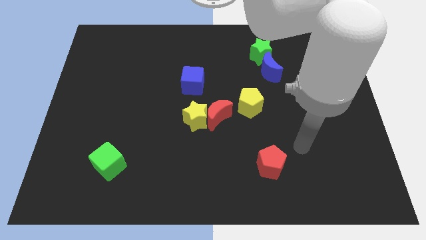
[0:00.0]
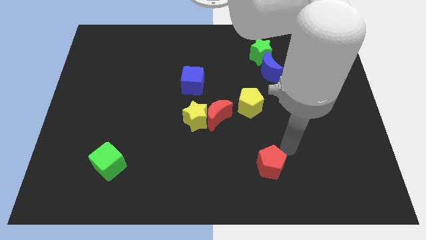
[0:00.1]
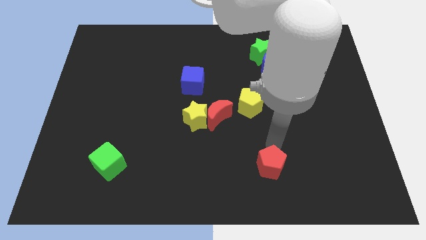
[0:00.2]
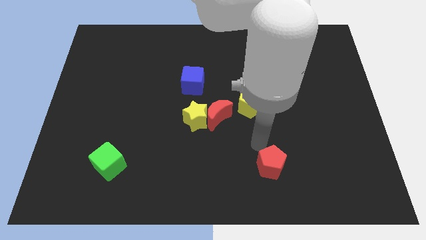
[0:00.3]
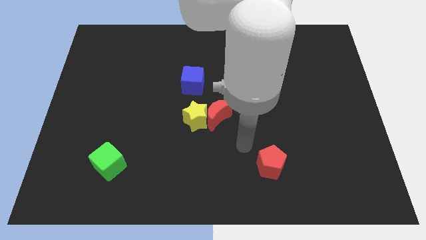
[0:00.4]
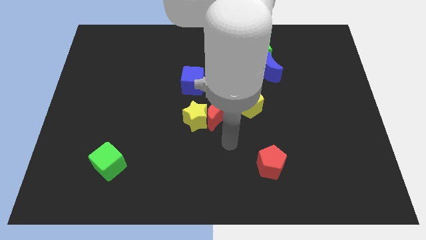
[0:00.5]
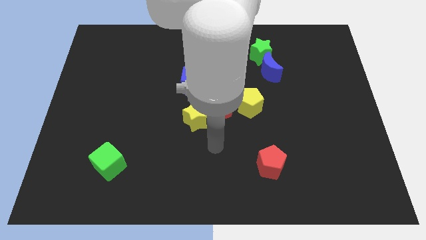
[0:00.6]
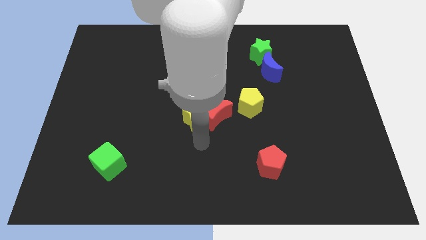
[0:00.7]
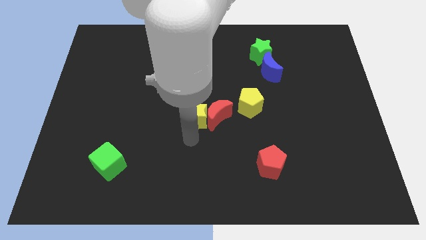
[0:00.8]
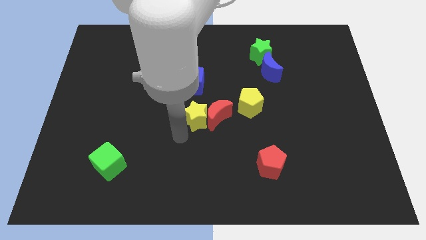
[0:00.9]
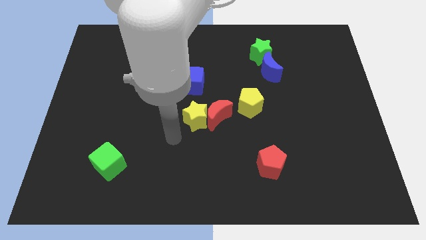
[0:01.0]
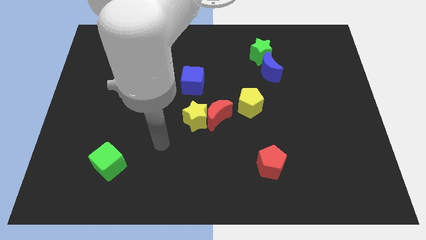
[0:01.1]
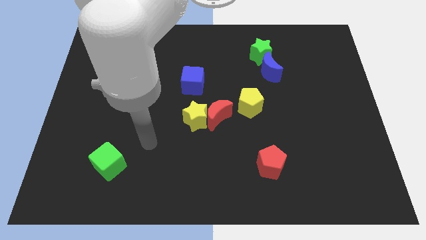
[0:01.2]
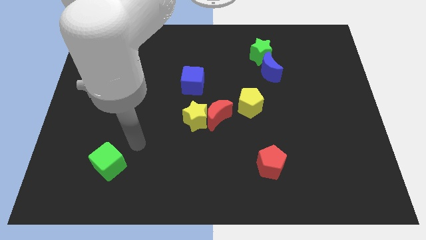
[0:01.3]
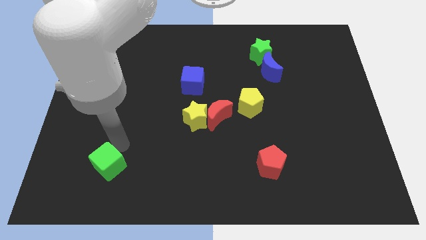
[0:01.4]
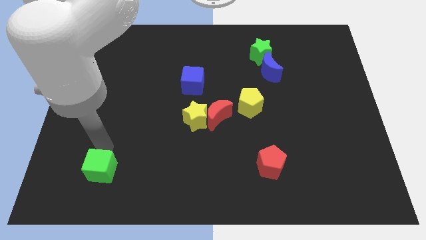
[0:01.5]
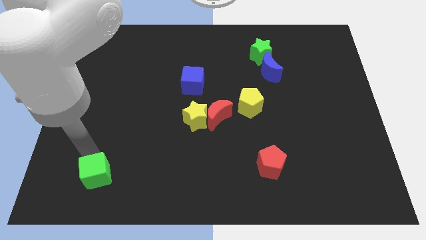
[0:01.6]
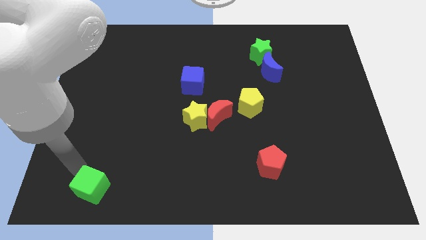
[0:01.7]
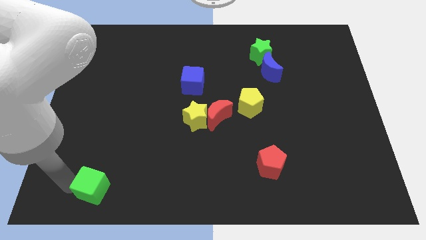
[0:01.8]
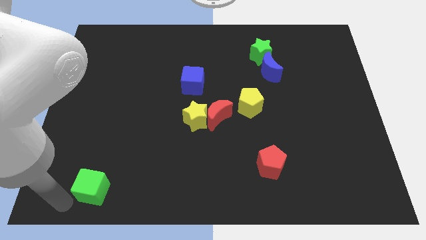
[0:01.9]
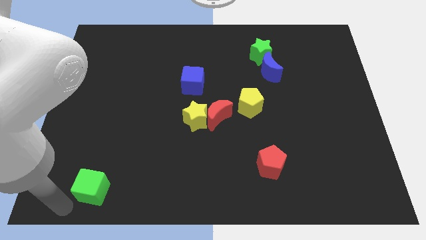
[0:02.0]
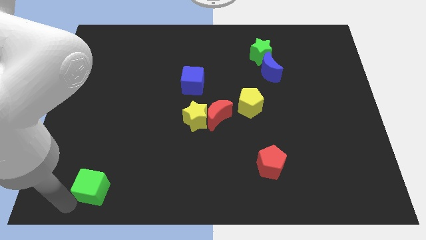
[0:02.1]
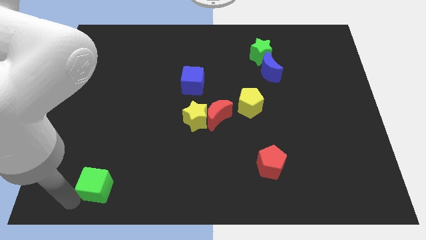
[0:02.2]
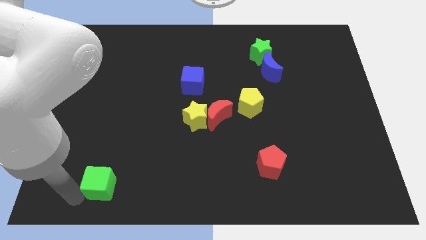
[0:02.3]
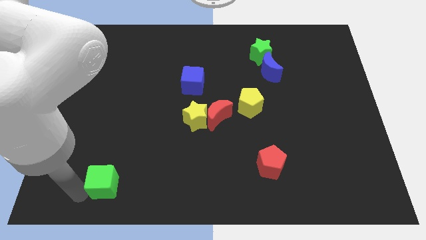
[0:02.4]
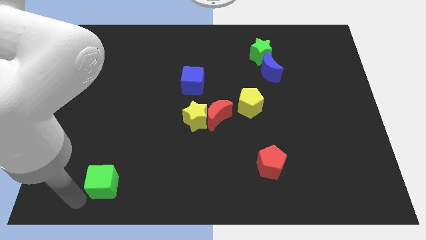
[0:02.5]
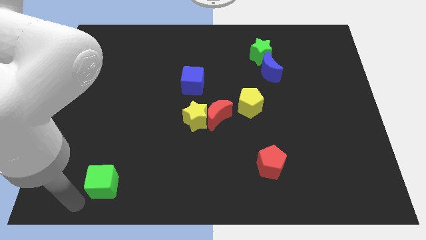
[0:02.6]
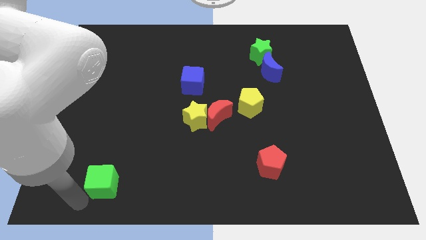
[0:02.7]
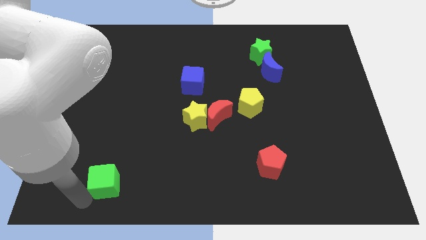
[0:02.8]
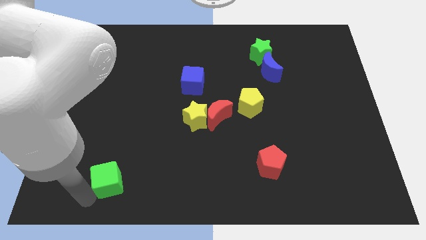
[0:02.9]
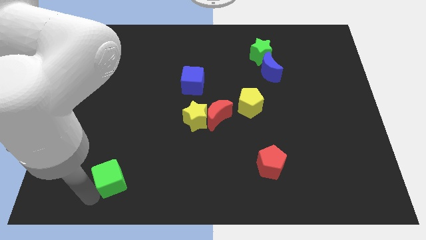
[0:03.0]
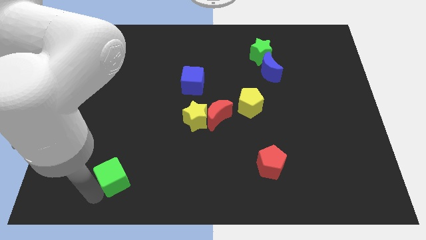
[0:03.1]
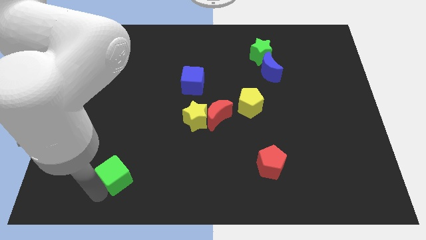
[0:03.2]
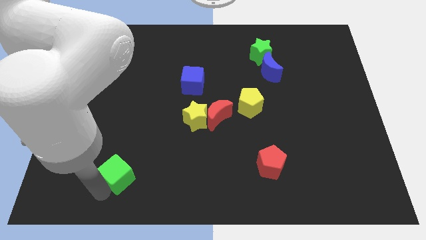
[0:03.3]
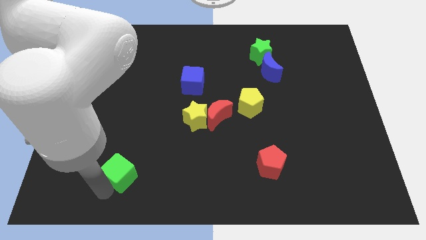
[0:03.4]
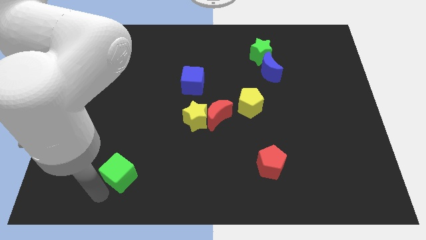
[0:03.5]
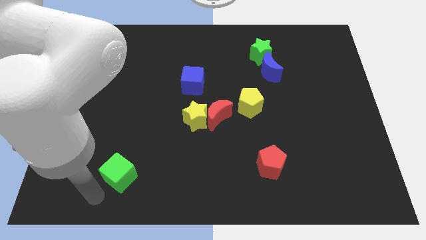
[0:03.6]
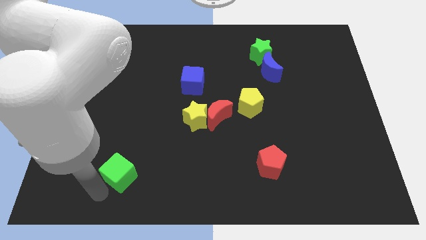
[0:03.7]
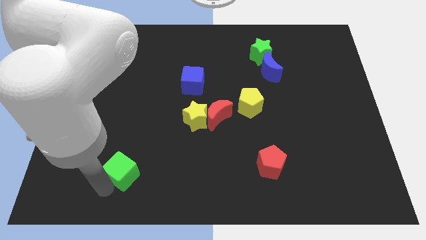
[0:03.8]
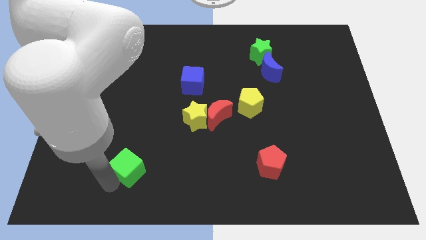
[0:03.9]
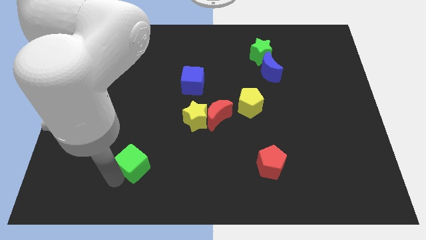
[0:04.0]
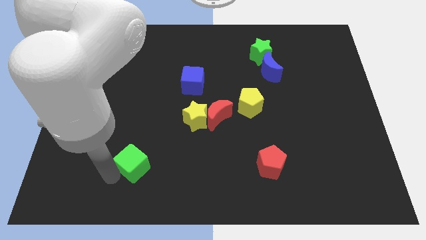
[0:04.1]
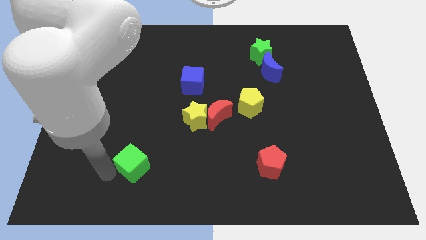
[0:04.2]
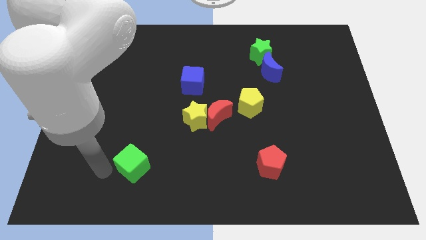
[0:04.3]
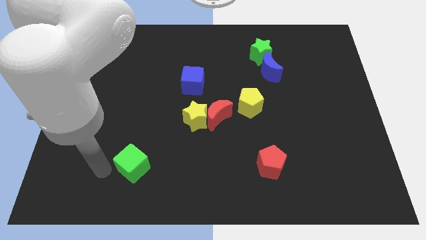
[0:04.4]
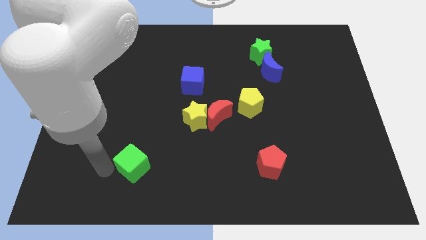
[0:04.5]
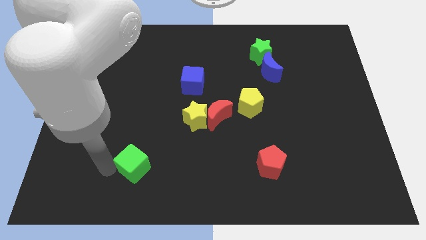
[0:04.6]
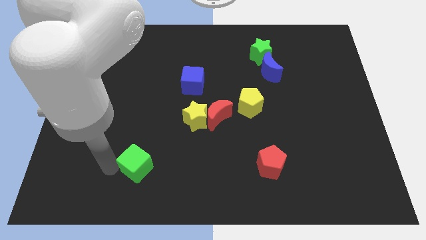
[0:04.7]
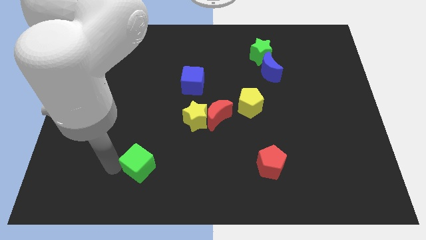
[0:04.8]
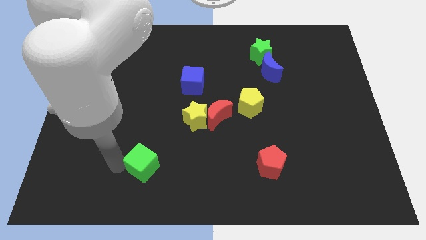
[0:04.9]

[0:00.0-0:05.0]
push the green cube right somewhat

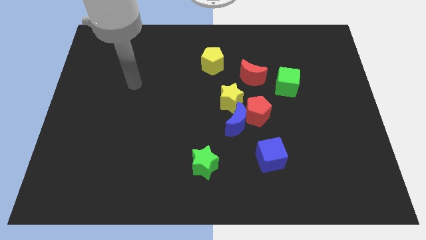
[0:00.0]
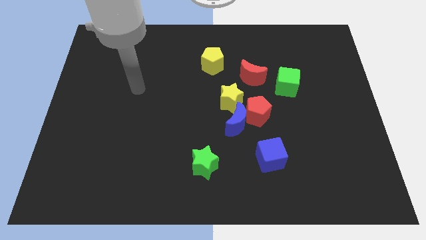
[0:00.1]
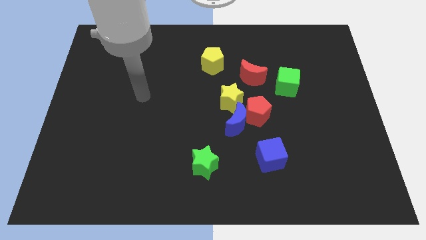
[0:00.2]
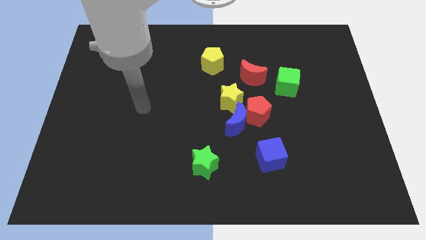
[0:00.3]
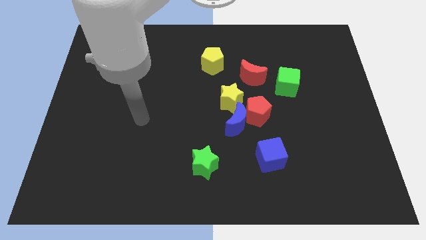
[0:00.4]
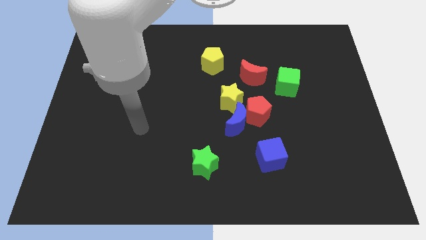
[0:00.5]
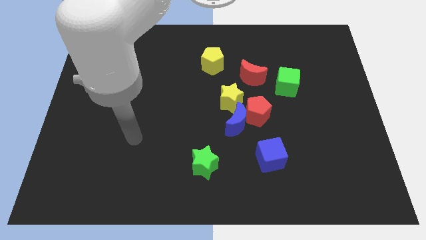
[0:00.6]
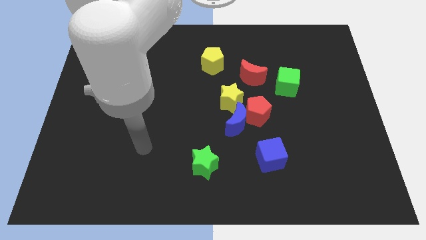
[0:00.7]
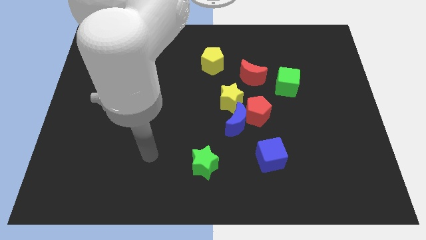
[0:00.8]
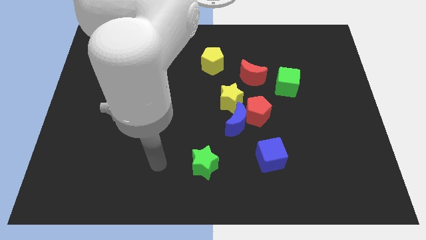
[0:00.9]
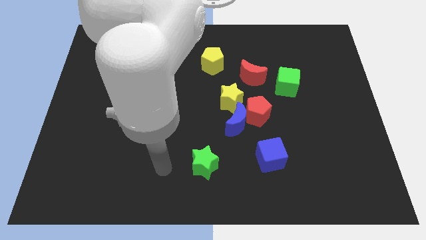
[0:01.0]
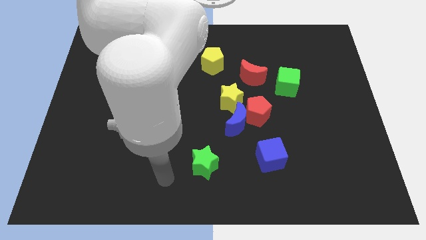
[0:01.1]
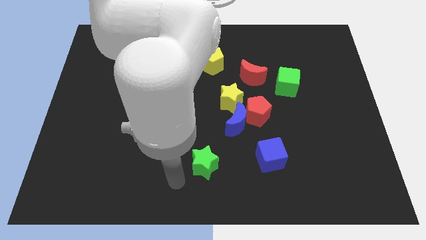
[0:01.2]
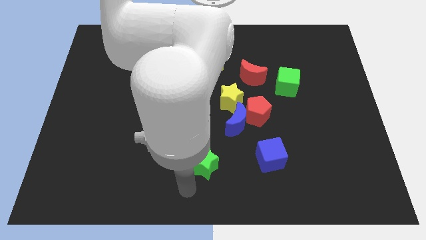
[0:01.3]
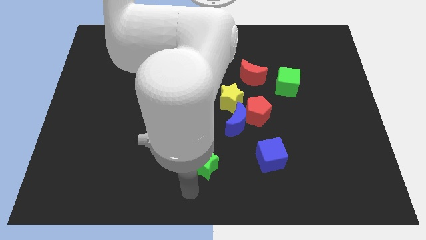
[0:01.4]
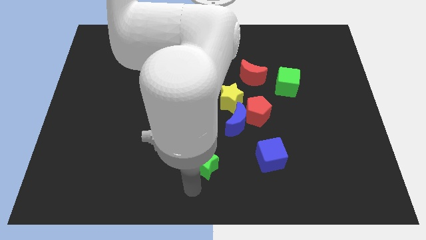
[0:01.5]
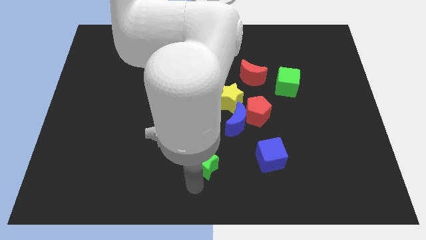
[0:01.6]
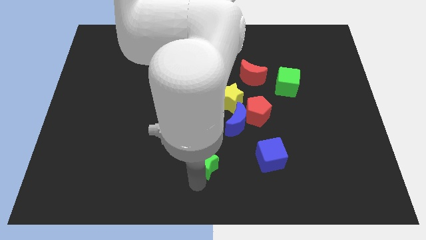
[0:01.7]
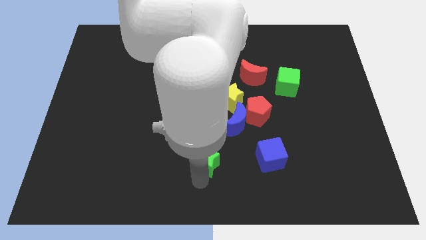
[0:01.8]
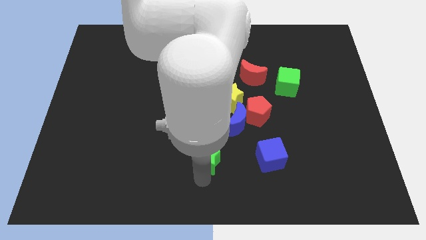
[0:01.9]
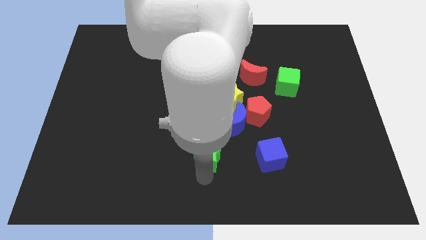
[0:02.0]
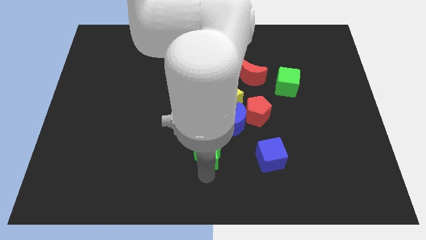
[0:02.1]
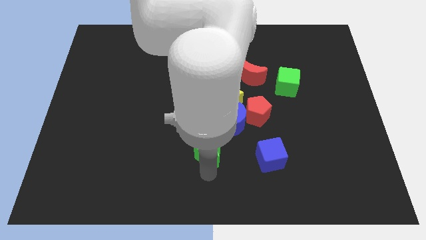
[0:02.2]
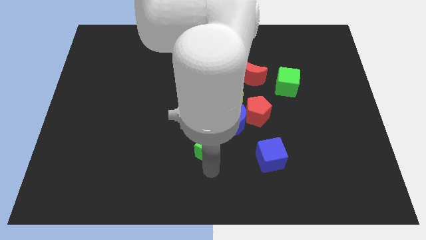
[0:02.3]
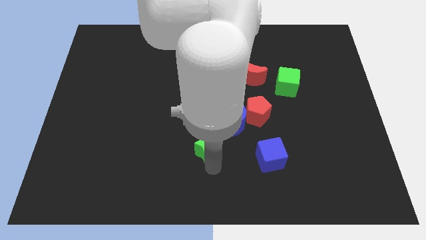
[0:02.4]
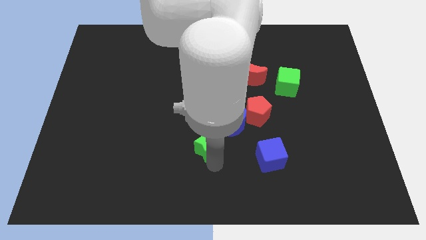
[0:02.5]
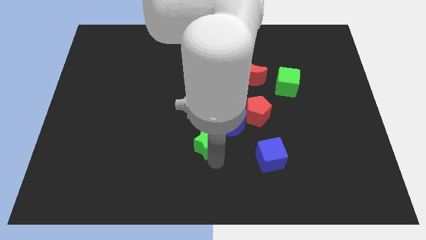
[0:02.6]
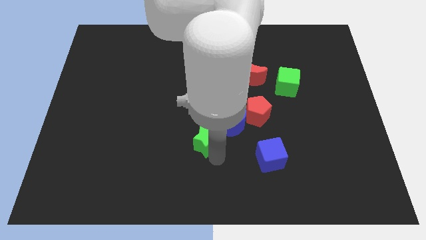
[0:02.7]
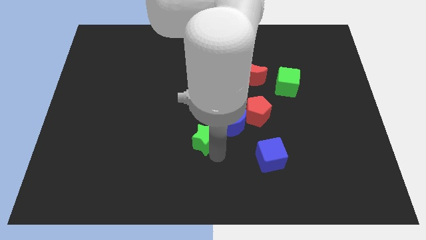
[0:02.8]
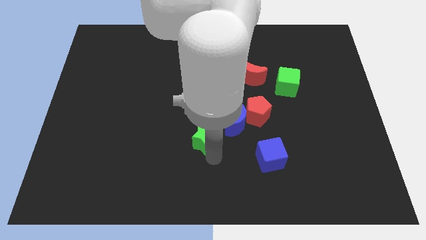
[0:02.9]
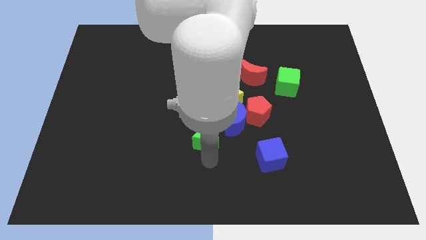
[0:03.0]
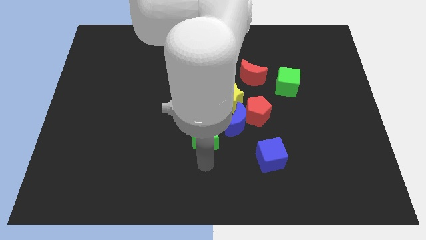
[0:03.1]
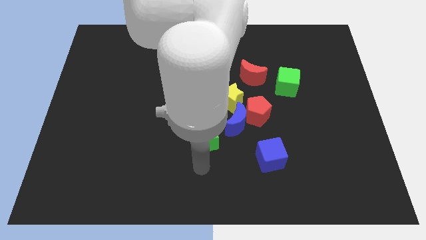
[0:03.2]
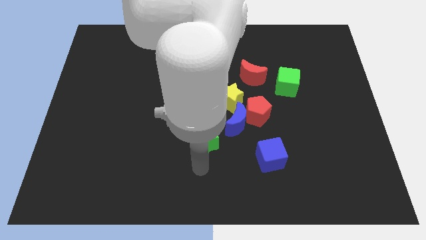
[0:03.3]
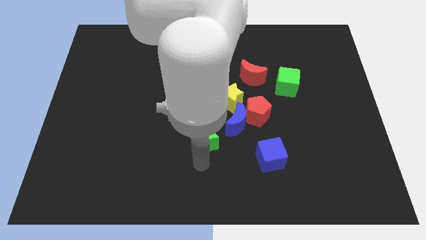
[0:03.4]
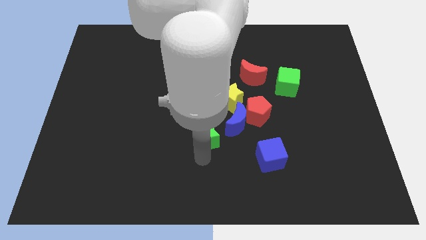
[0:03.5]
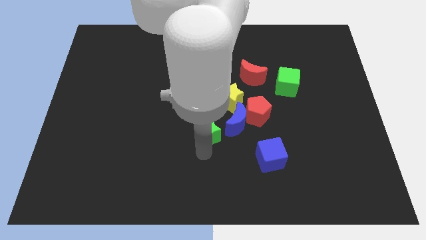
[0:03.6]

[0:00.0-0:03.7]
slightly slide the green star upwards
